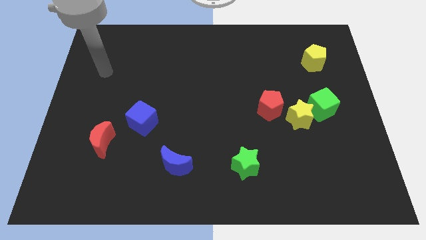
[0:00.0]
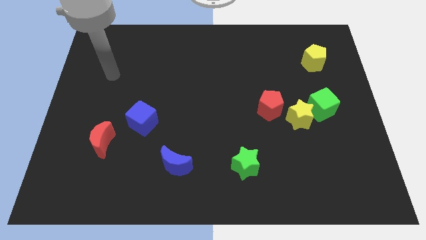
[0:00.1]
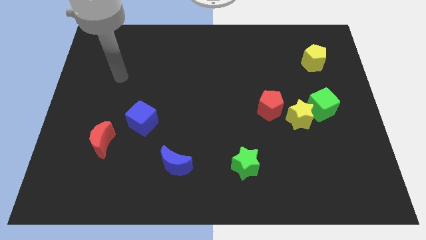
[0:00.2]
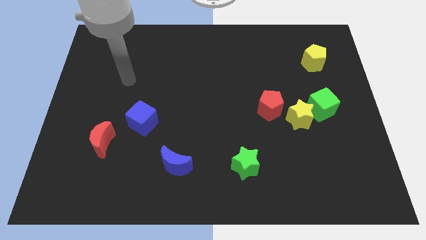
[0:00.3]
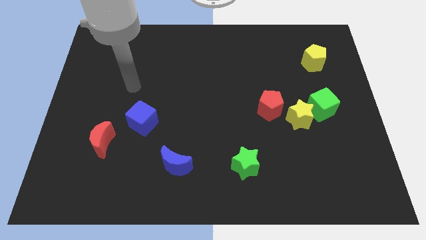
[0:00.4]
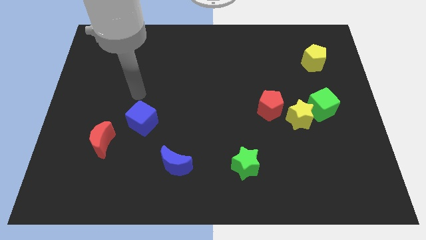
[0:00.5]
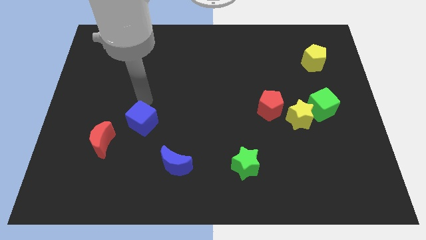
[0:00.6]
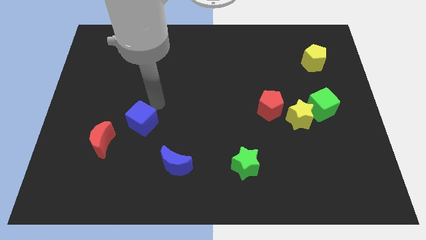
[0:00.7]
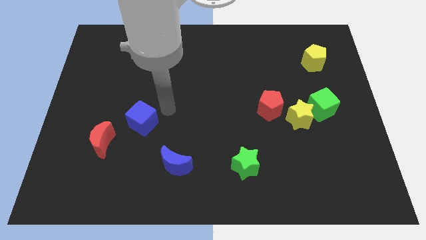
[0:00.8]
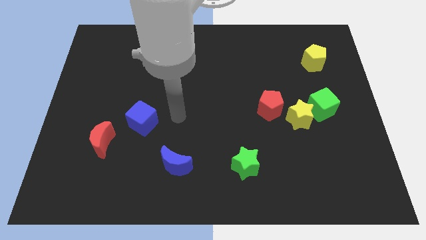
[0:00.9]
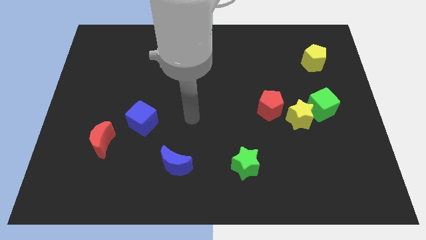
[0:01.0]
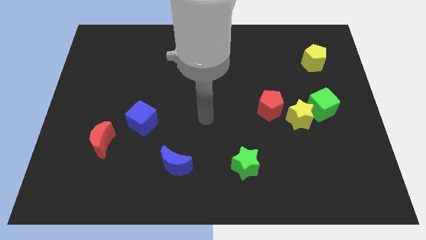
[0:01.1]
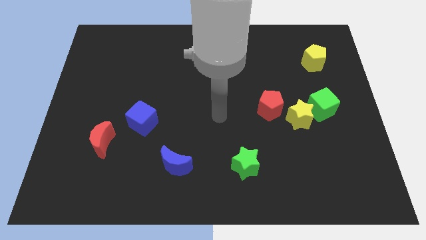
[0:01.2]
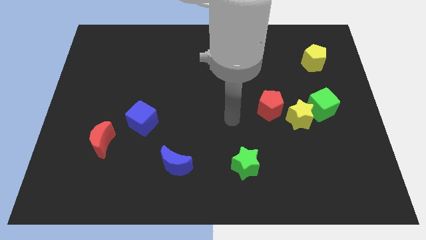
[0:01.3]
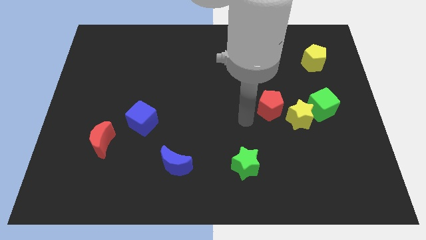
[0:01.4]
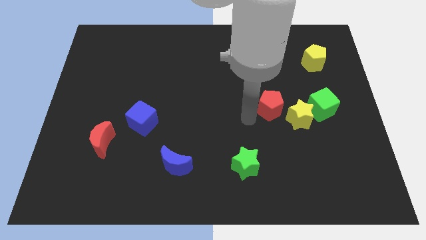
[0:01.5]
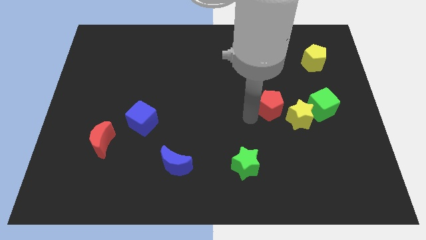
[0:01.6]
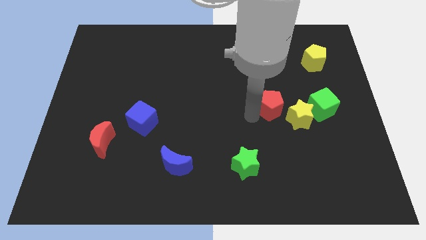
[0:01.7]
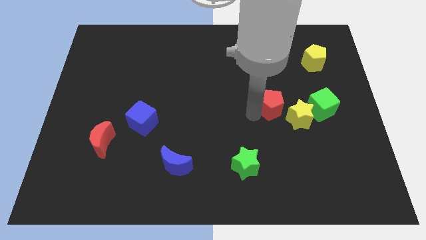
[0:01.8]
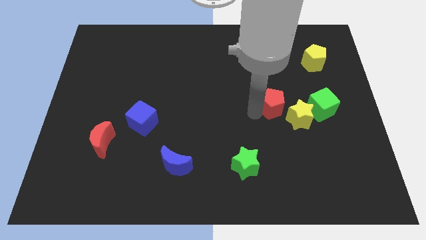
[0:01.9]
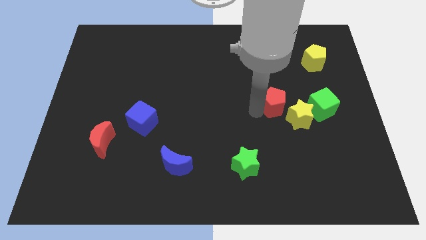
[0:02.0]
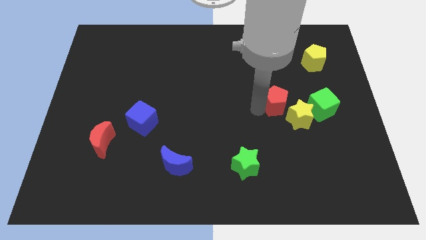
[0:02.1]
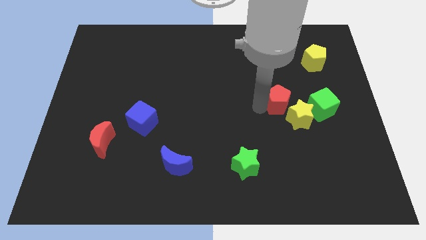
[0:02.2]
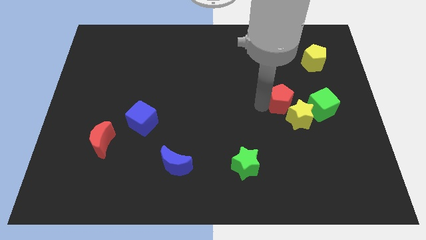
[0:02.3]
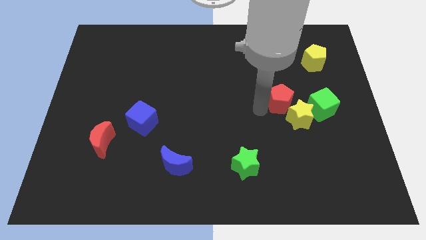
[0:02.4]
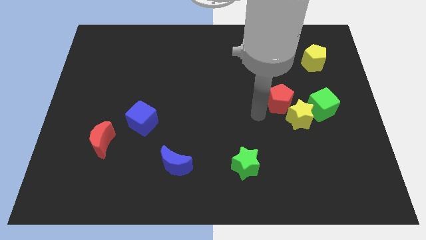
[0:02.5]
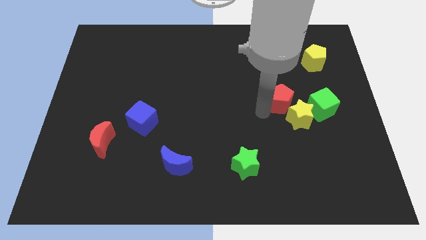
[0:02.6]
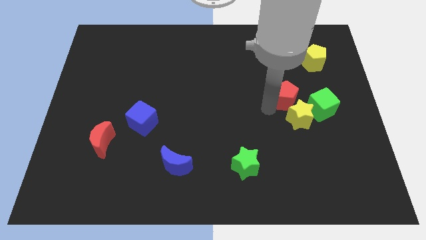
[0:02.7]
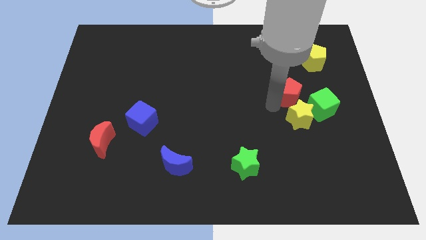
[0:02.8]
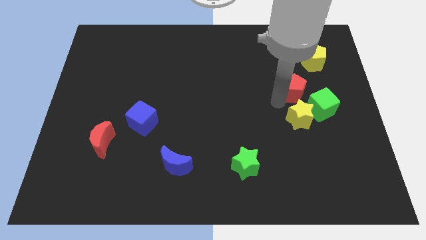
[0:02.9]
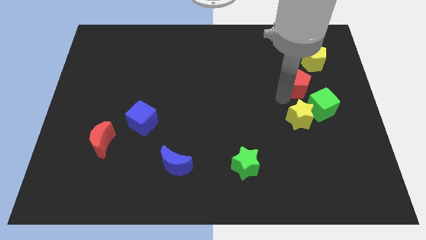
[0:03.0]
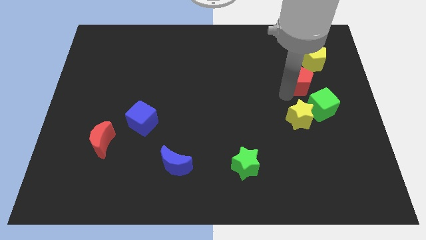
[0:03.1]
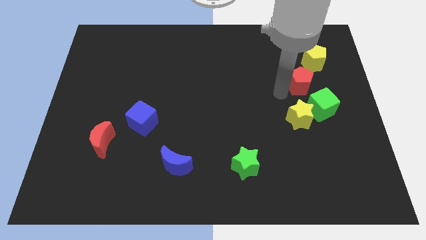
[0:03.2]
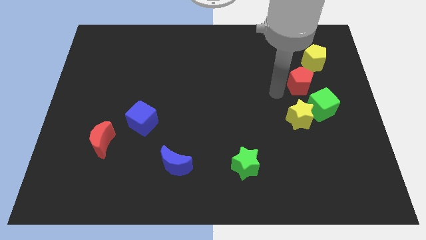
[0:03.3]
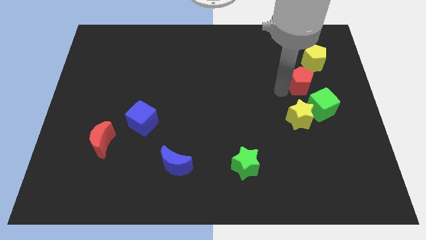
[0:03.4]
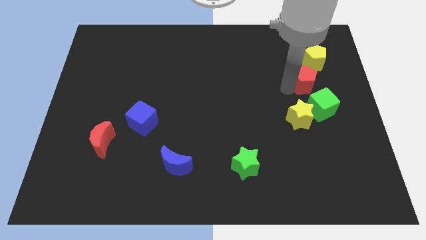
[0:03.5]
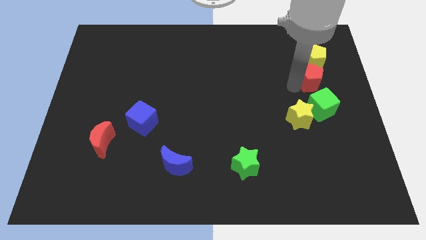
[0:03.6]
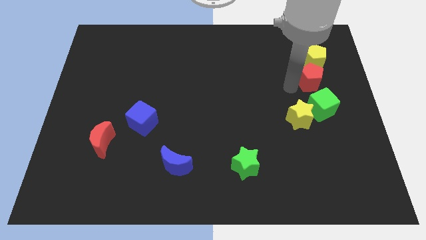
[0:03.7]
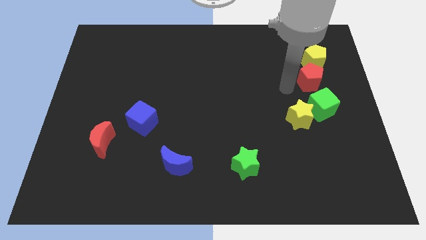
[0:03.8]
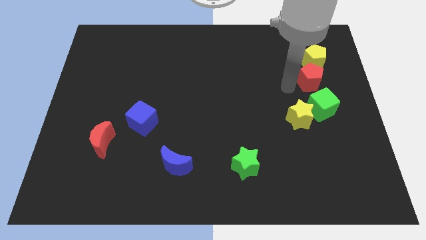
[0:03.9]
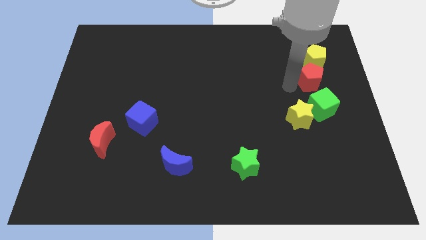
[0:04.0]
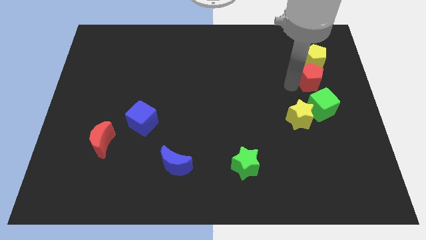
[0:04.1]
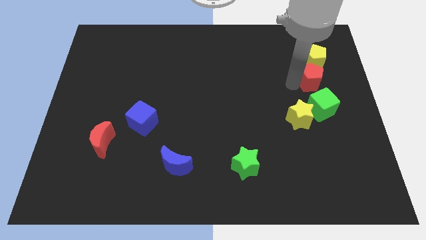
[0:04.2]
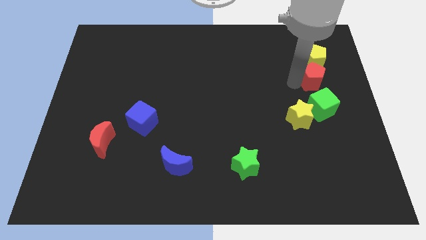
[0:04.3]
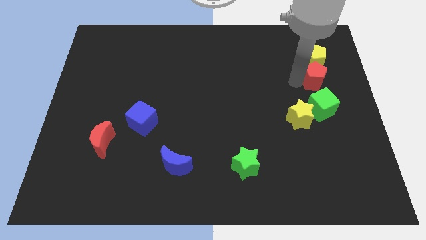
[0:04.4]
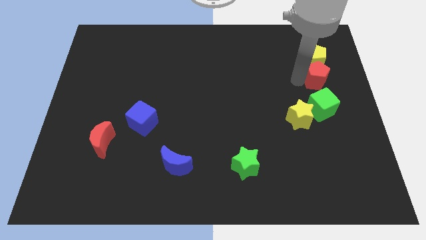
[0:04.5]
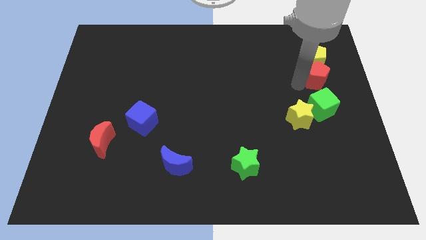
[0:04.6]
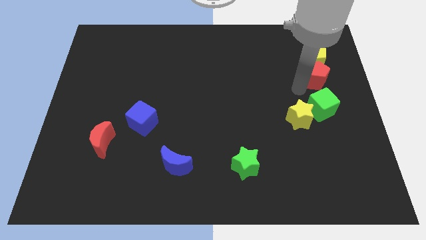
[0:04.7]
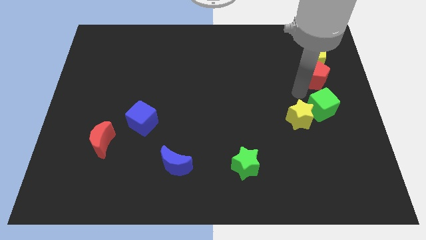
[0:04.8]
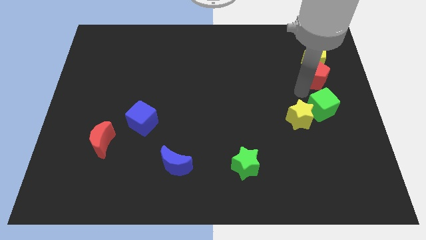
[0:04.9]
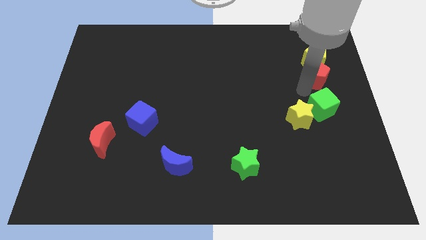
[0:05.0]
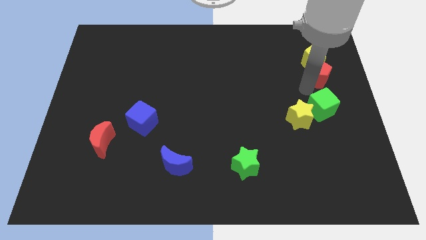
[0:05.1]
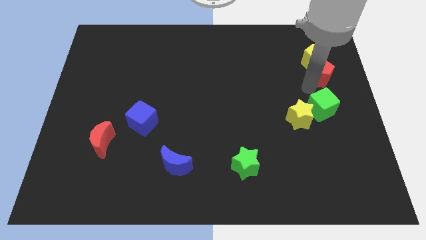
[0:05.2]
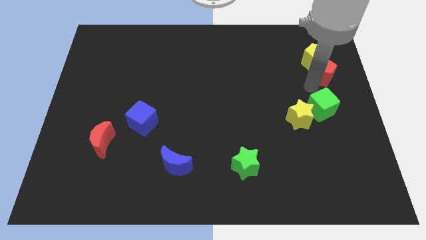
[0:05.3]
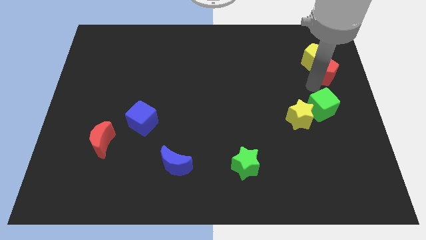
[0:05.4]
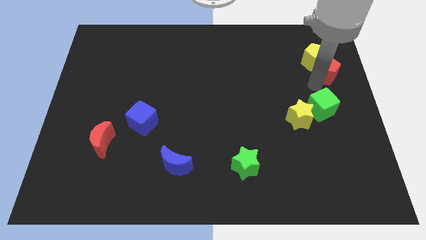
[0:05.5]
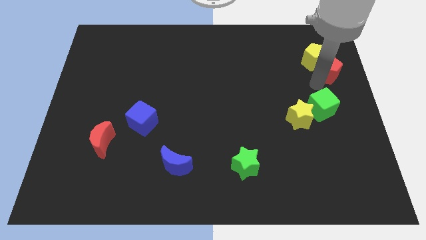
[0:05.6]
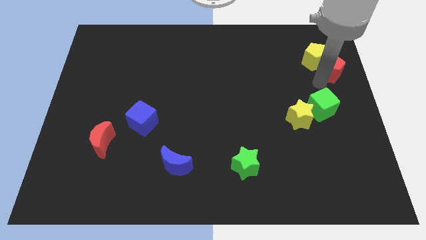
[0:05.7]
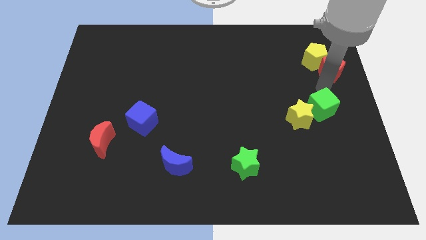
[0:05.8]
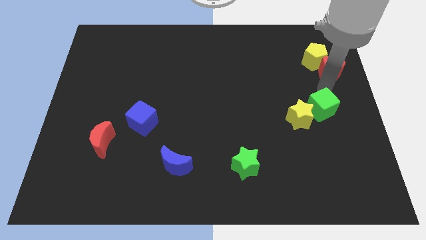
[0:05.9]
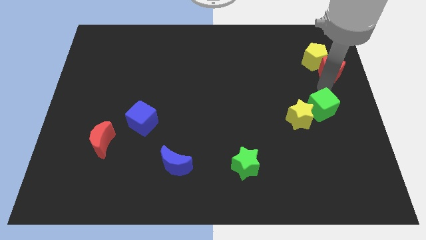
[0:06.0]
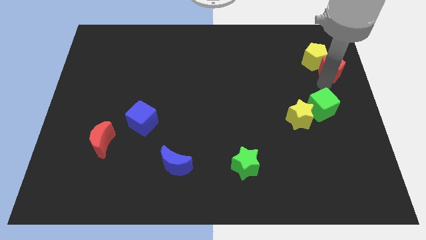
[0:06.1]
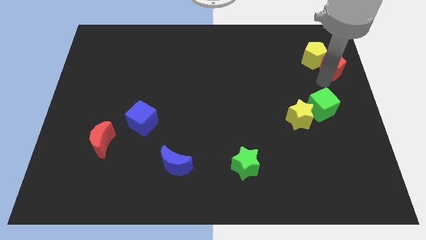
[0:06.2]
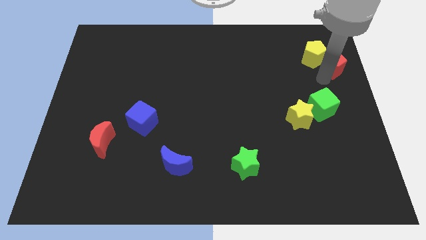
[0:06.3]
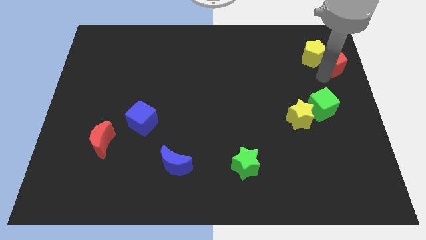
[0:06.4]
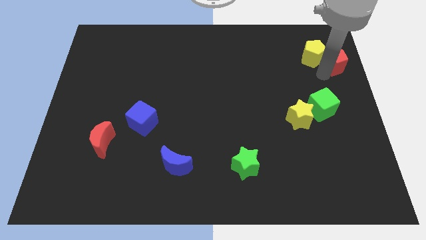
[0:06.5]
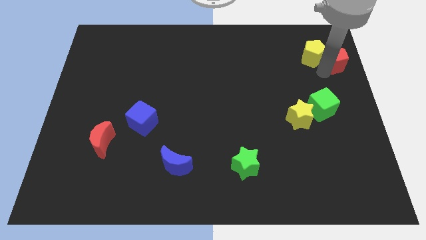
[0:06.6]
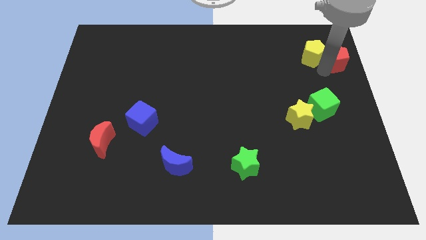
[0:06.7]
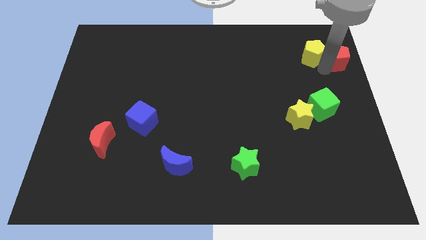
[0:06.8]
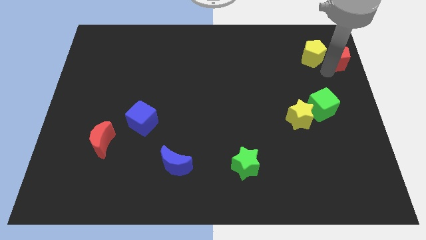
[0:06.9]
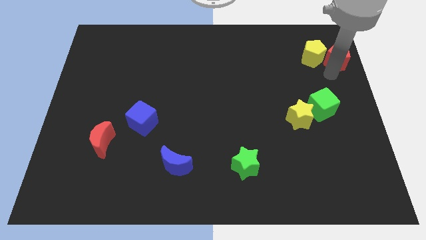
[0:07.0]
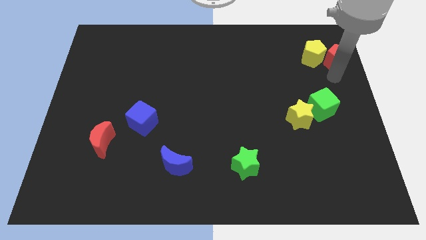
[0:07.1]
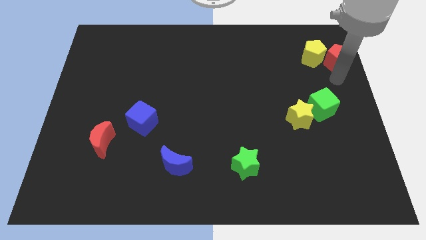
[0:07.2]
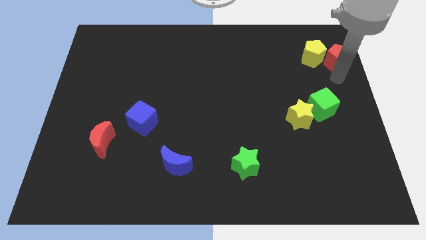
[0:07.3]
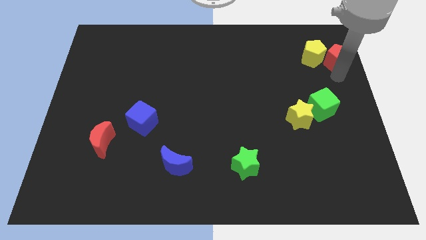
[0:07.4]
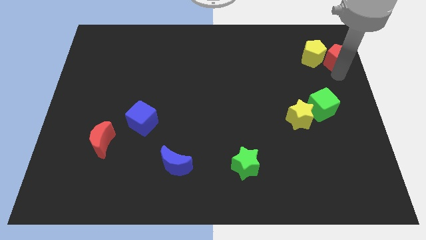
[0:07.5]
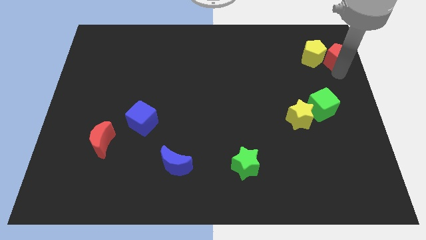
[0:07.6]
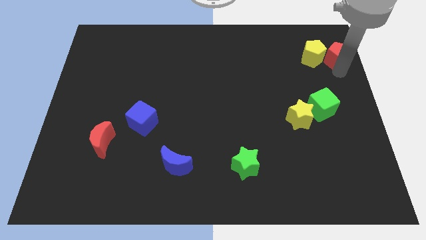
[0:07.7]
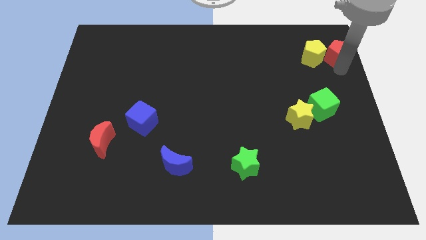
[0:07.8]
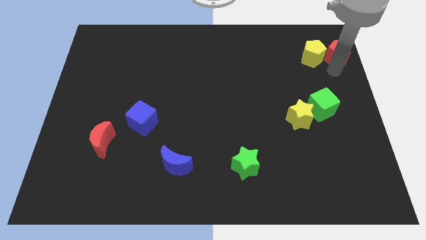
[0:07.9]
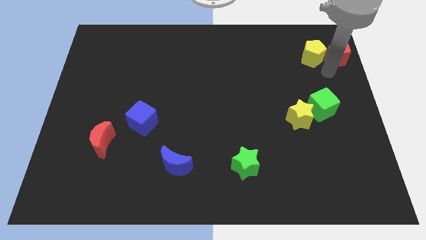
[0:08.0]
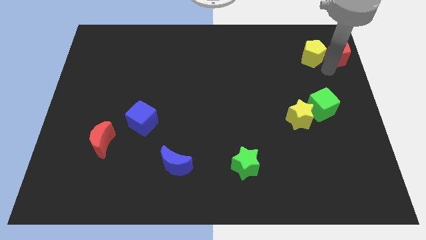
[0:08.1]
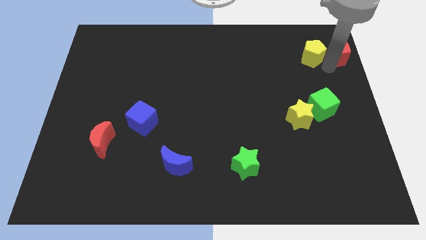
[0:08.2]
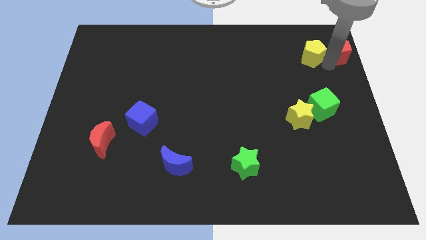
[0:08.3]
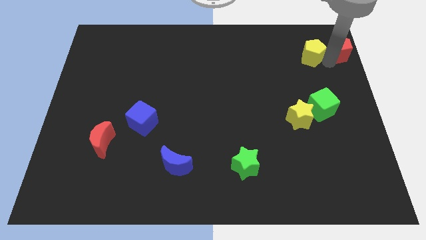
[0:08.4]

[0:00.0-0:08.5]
move the red pentagon to the top right of the board
